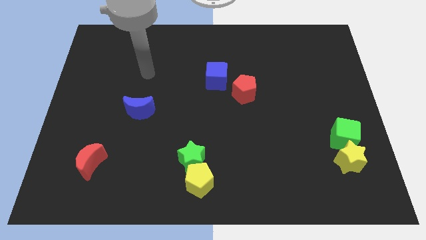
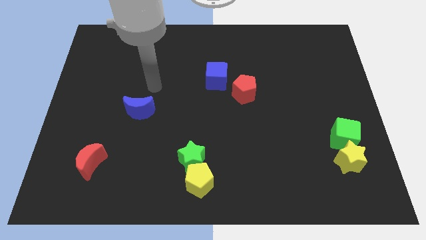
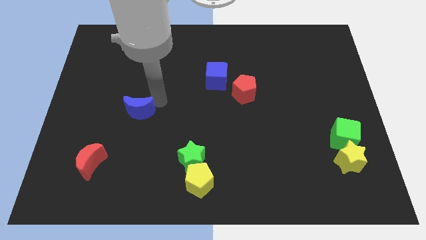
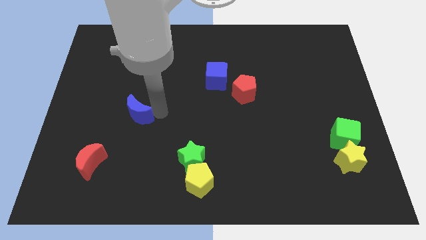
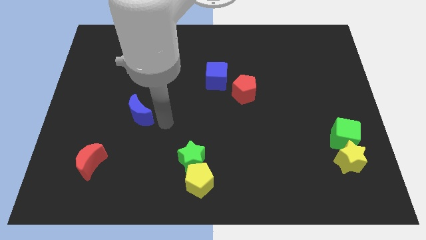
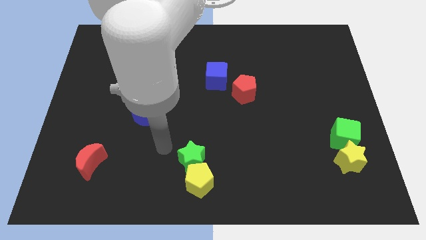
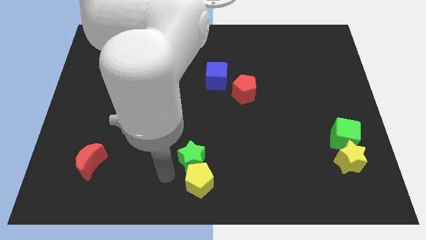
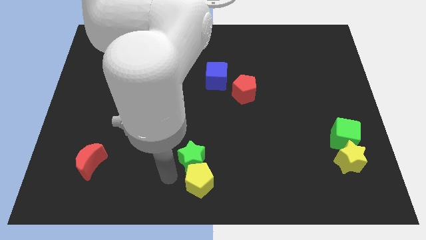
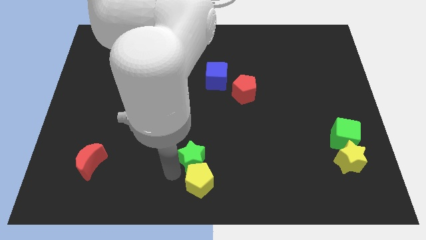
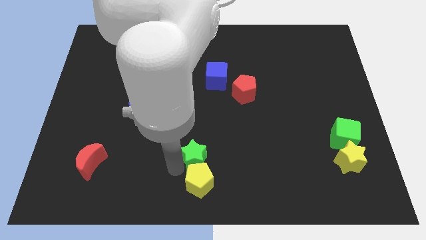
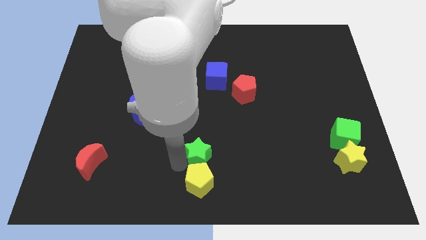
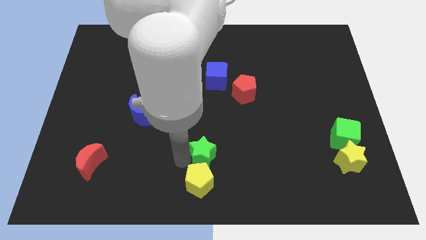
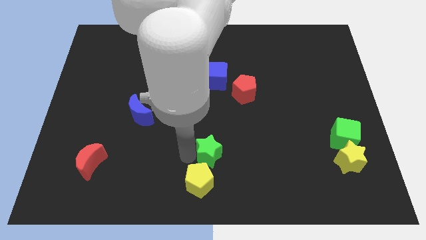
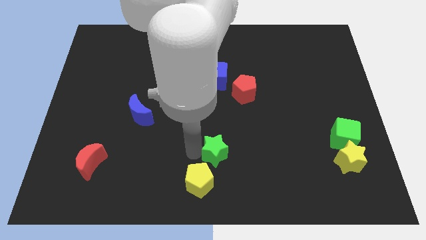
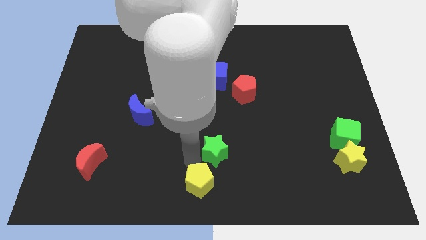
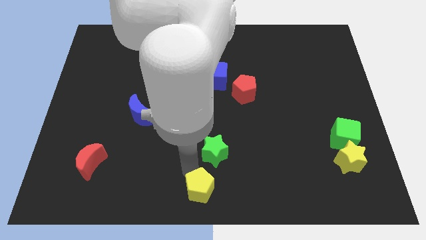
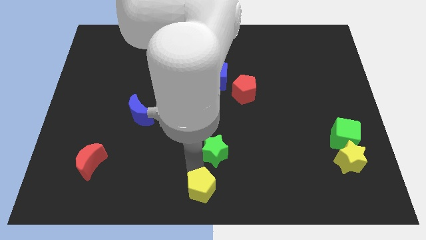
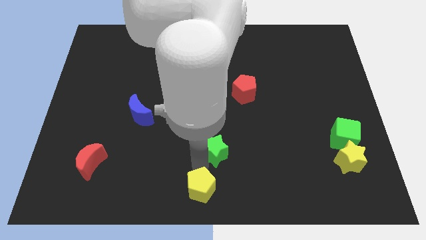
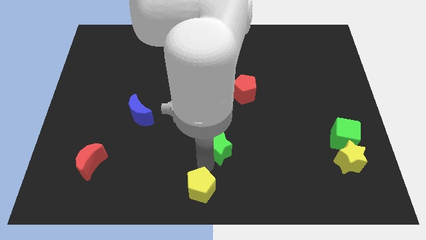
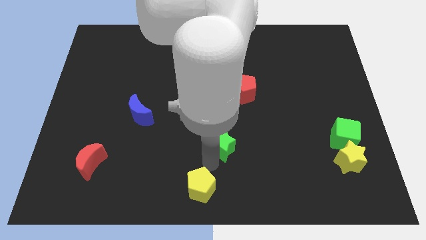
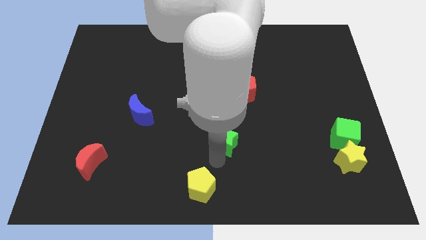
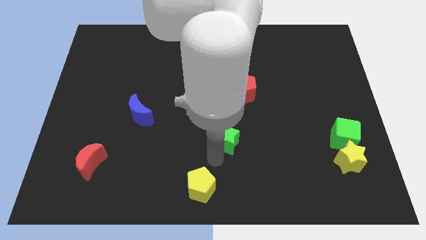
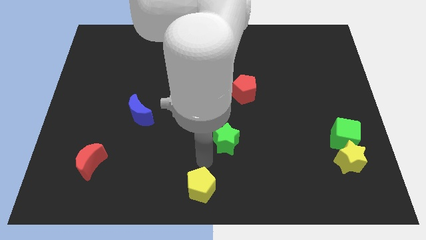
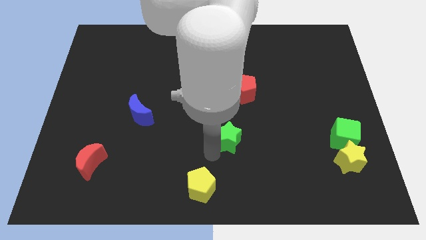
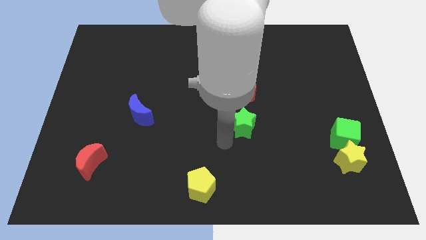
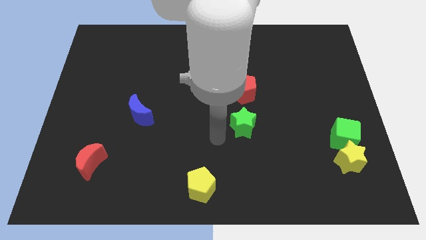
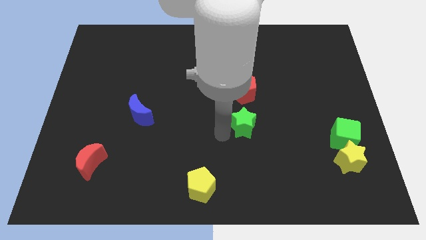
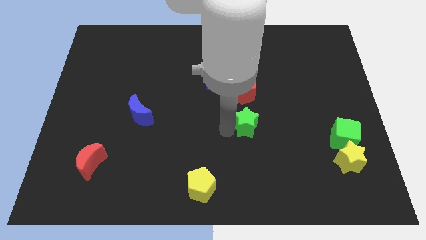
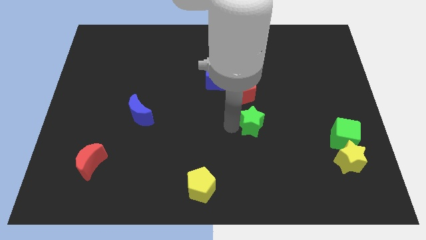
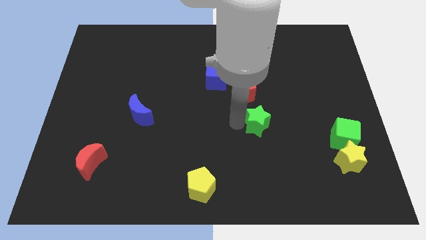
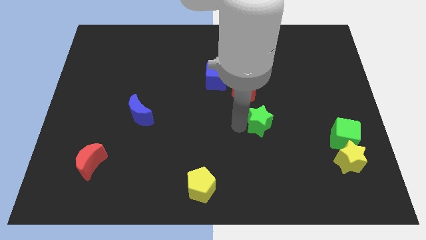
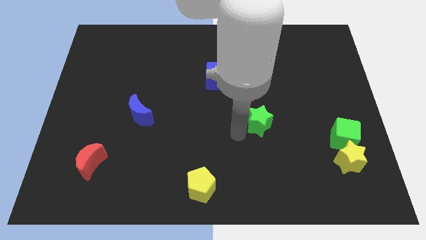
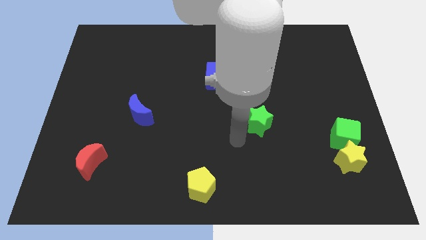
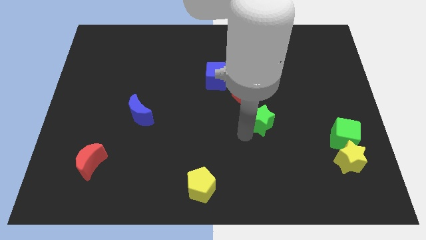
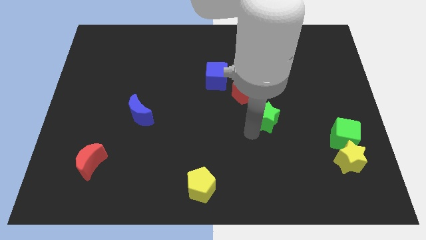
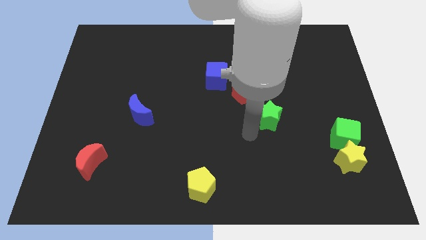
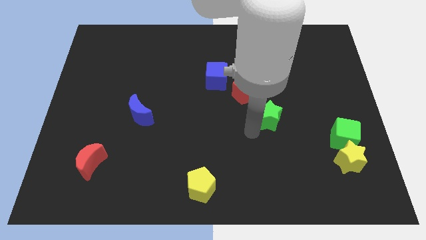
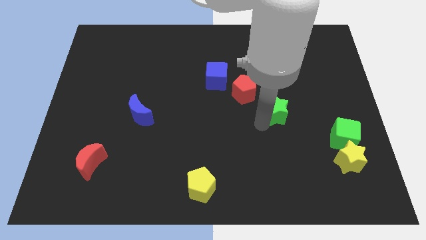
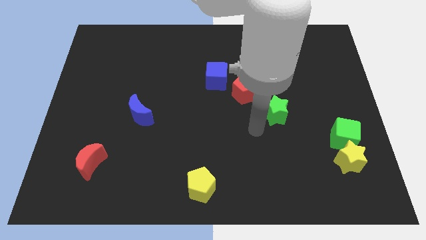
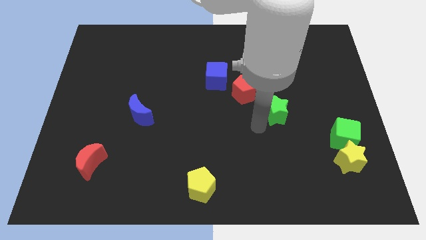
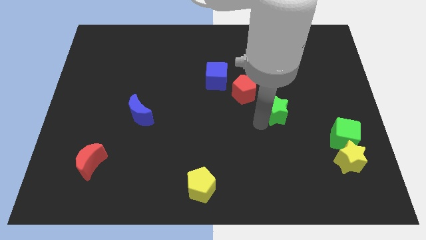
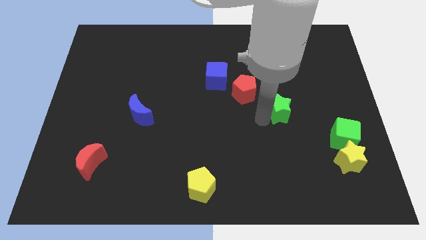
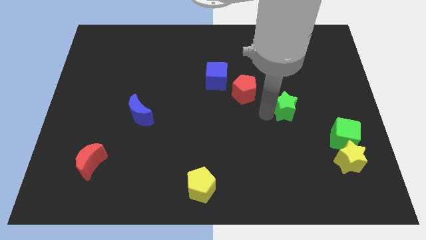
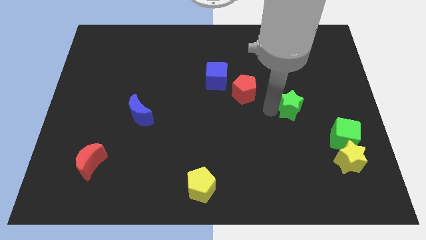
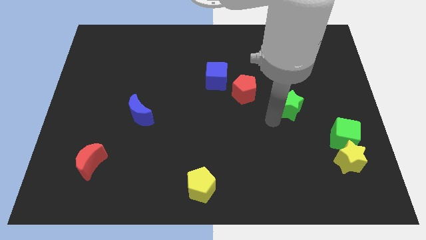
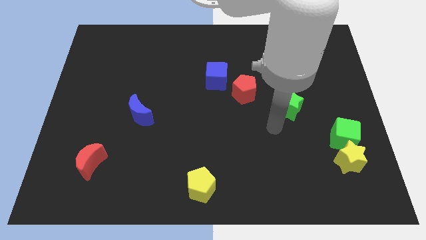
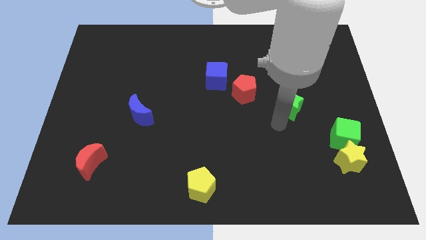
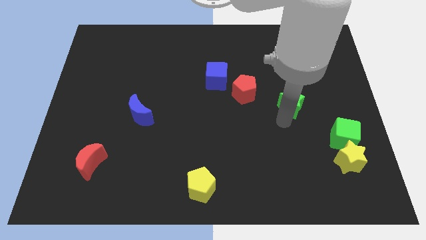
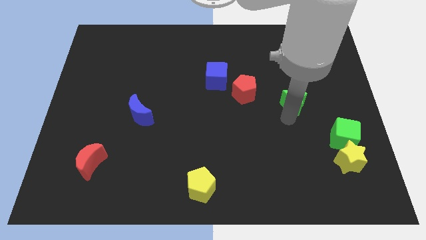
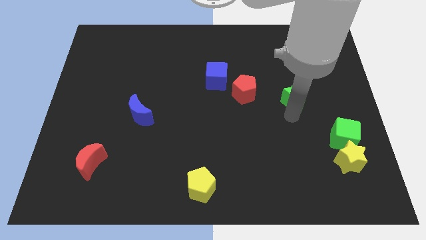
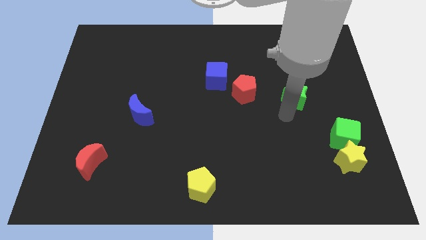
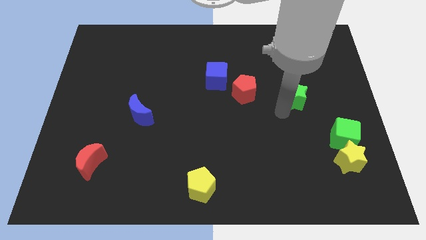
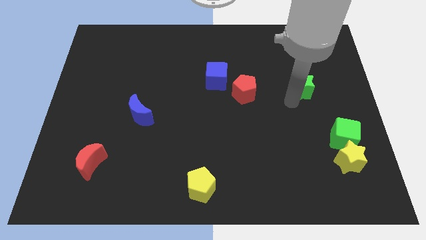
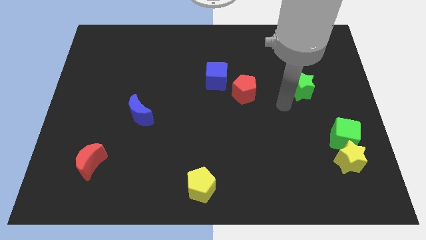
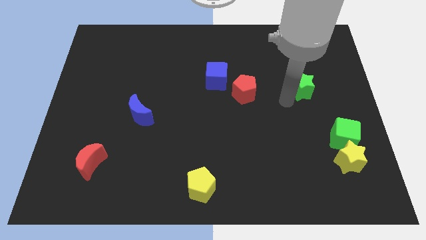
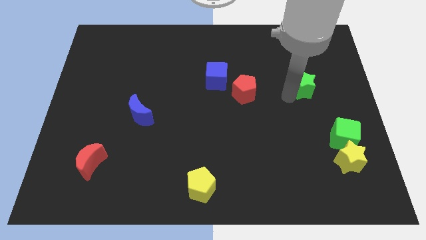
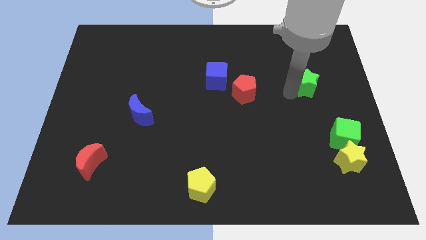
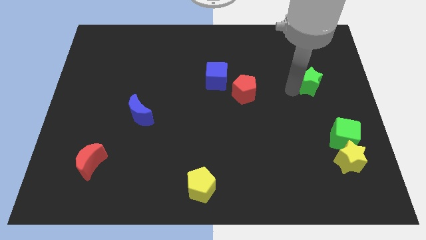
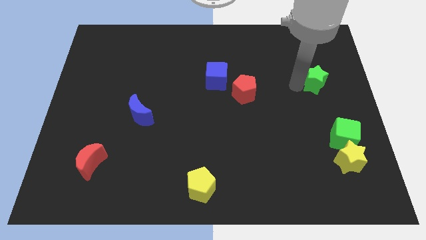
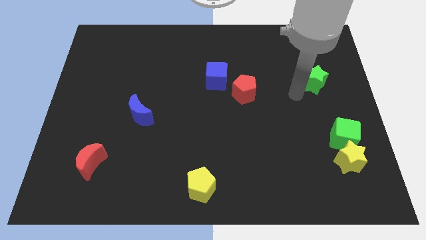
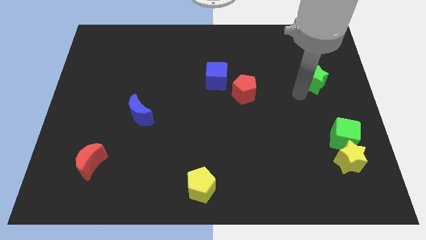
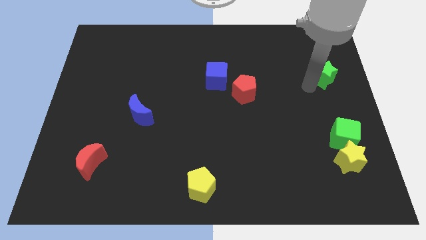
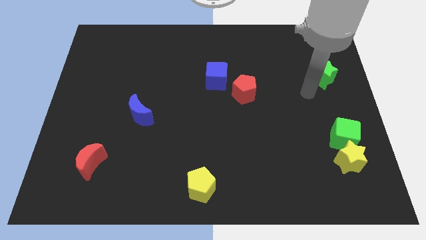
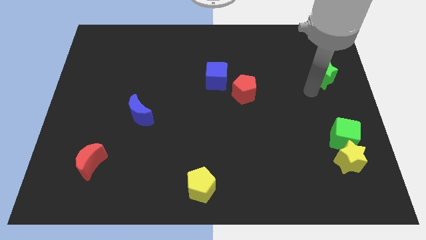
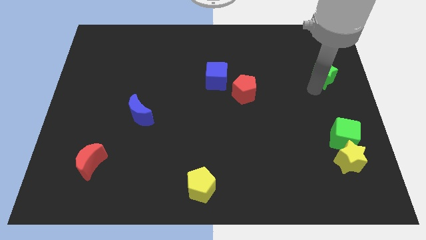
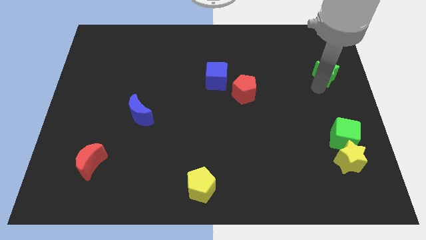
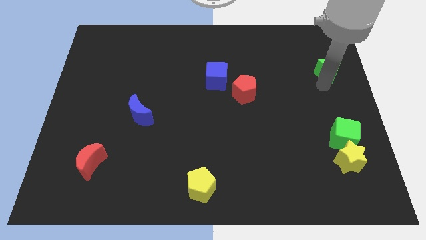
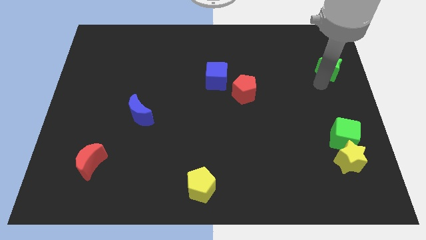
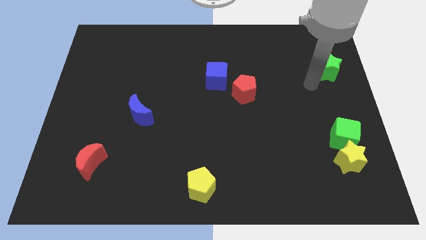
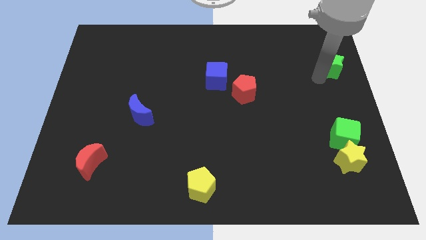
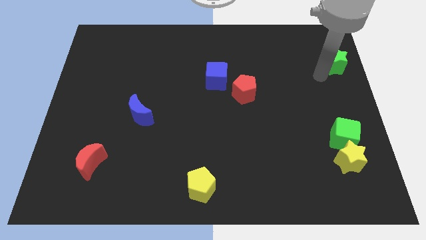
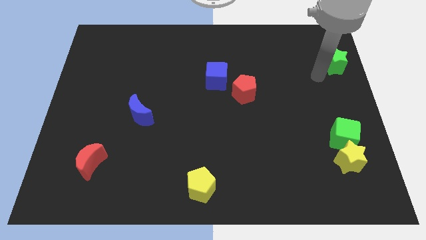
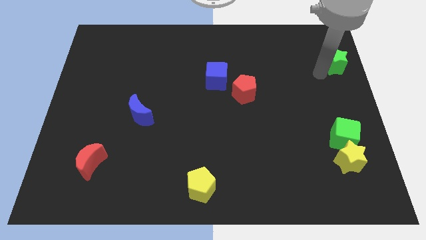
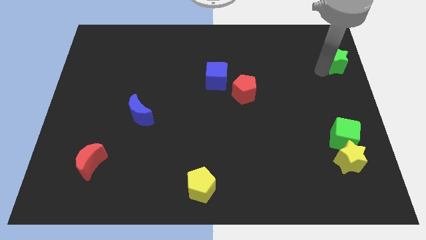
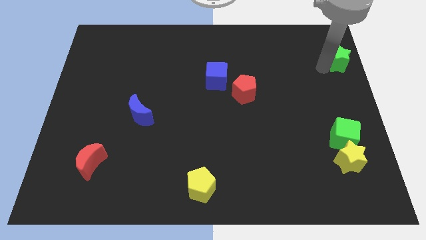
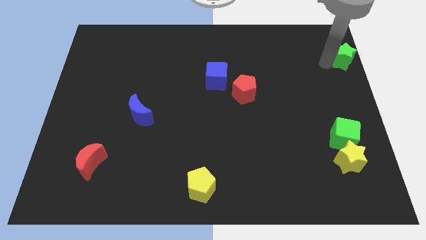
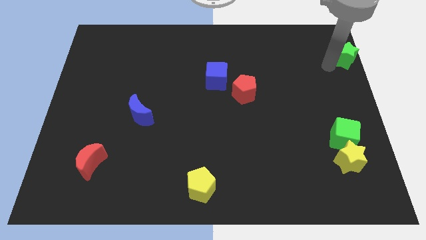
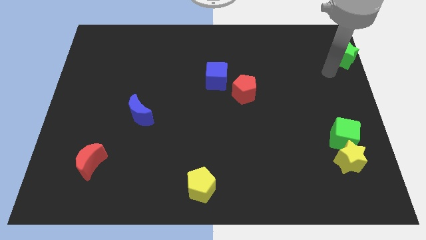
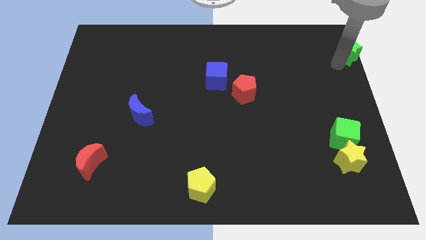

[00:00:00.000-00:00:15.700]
slide the green star to the top right corner

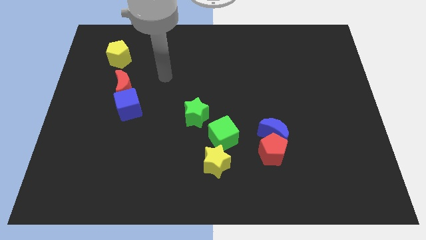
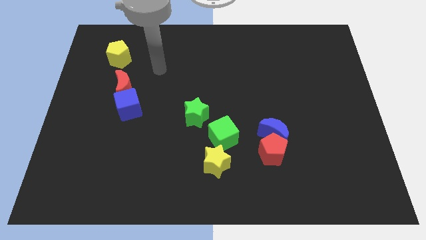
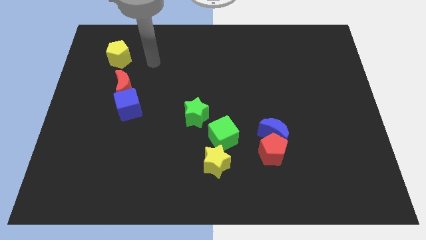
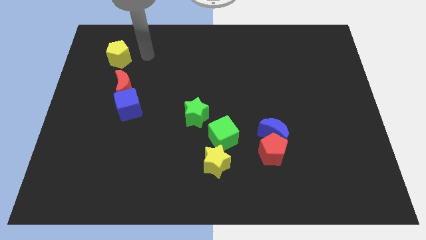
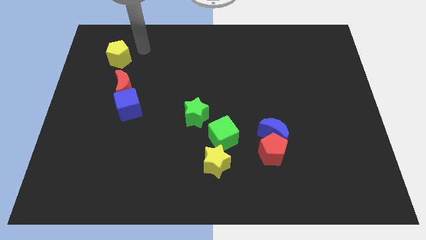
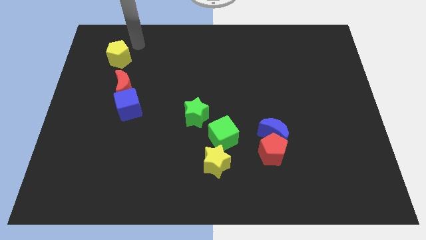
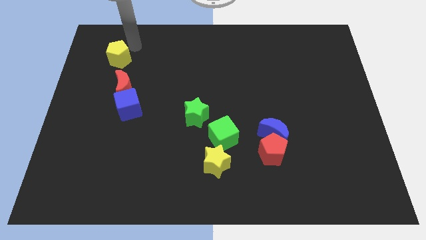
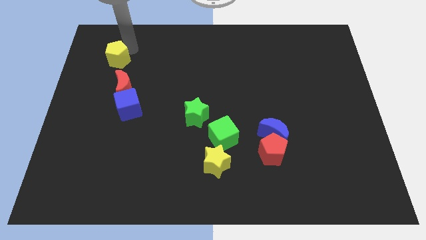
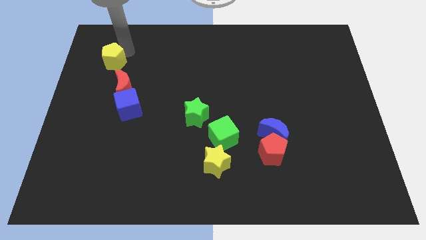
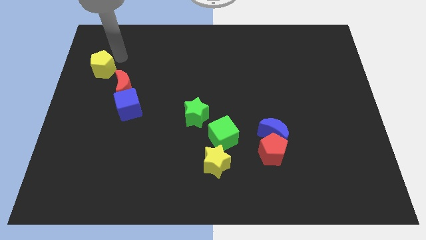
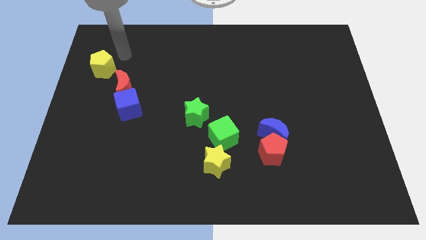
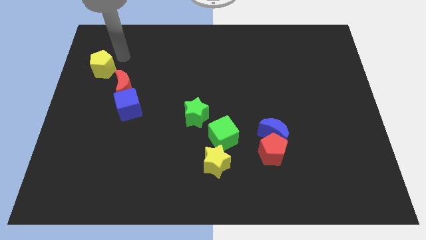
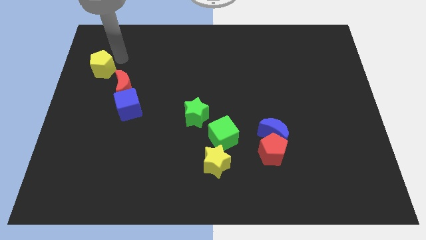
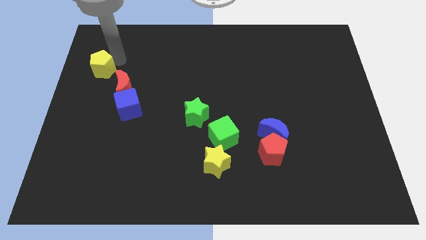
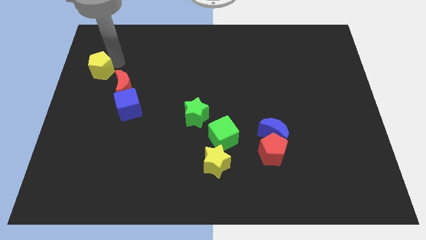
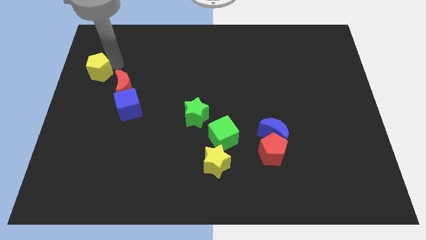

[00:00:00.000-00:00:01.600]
put the yellow pentagon to the center left
